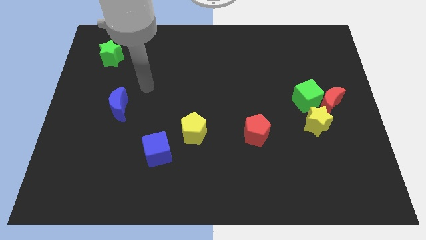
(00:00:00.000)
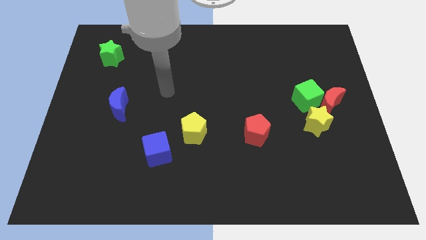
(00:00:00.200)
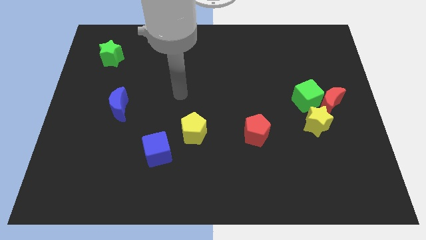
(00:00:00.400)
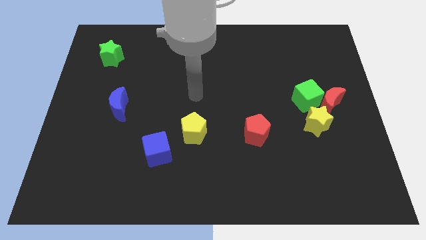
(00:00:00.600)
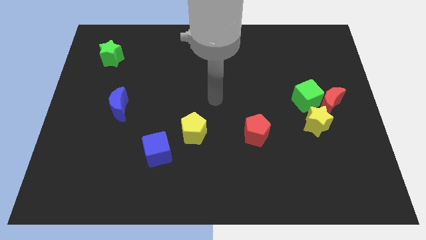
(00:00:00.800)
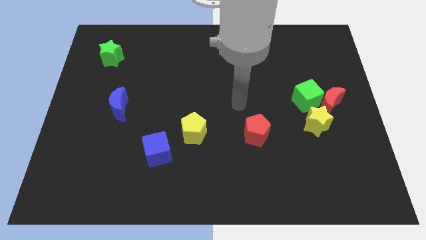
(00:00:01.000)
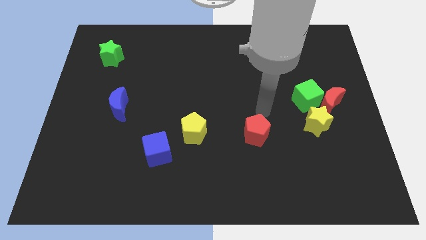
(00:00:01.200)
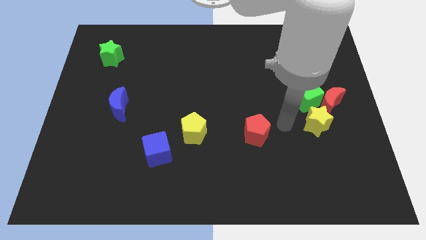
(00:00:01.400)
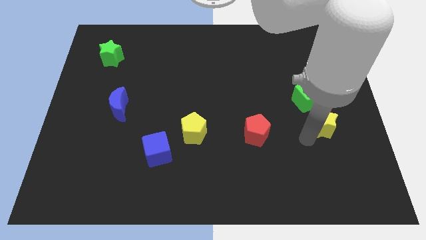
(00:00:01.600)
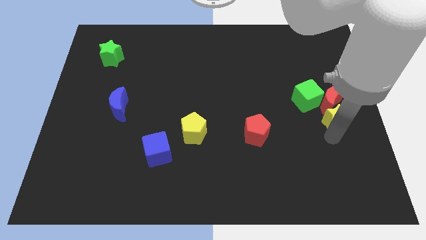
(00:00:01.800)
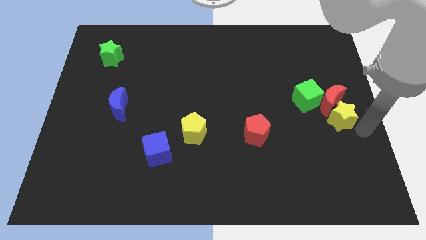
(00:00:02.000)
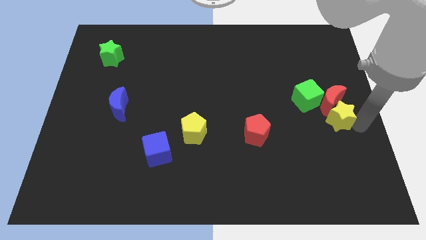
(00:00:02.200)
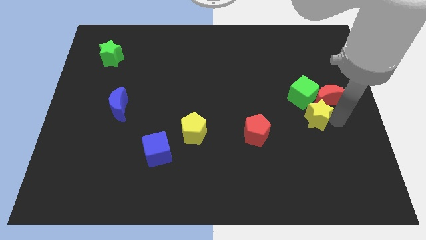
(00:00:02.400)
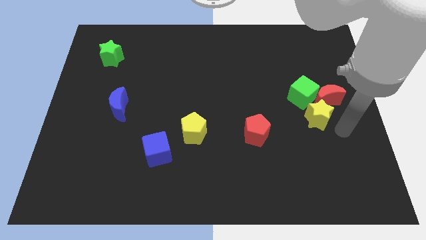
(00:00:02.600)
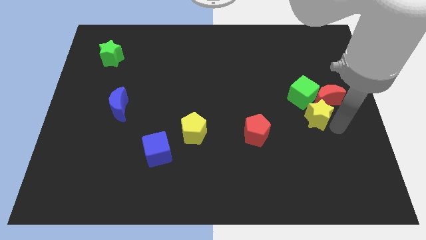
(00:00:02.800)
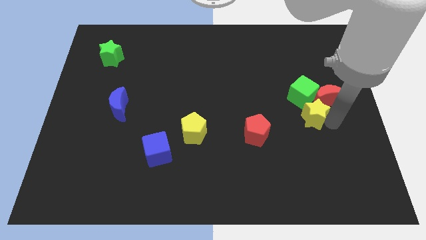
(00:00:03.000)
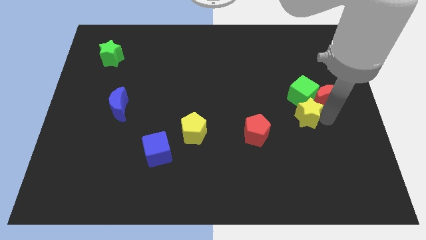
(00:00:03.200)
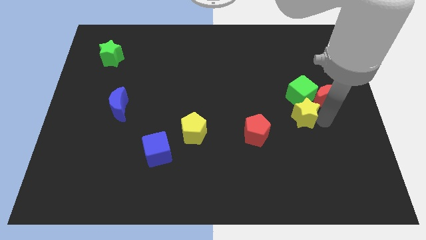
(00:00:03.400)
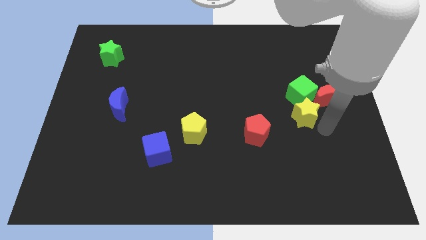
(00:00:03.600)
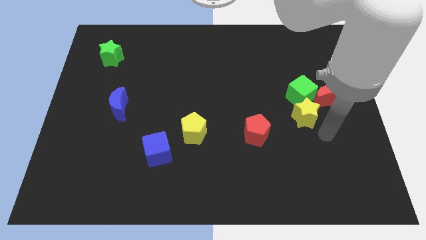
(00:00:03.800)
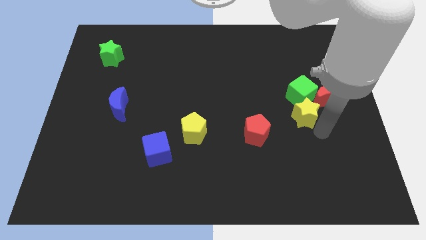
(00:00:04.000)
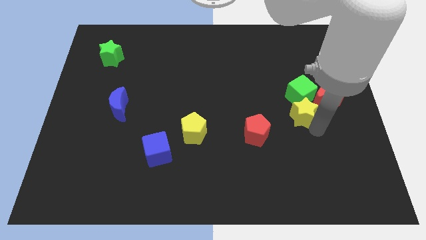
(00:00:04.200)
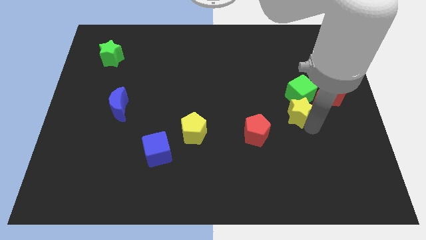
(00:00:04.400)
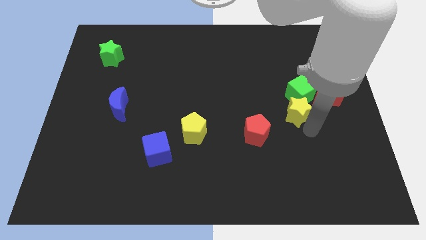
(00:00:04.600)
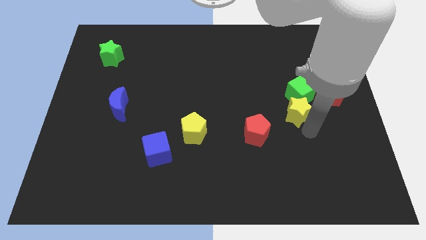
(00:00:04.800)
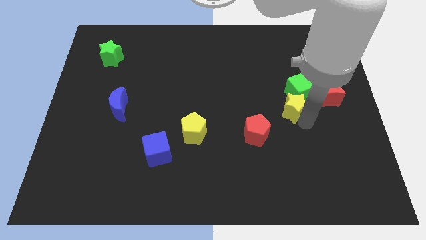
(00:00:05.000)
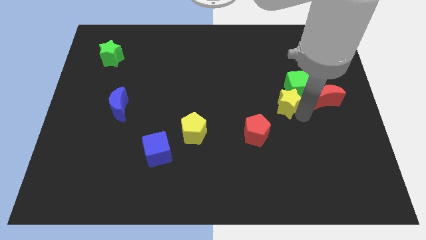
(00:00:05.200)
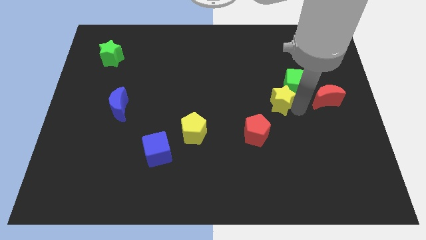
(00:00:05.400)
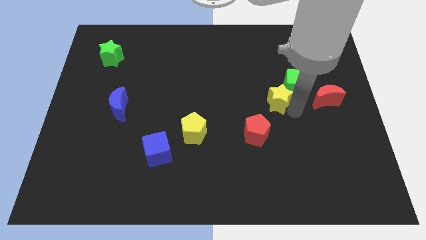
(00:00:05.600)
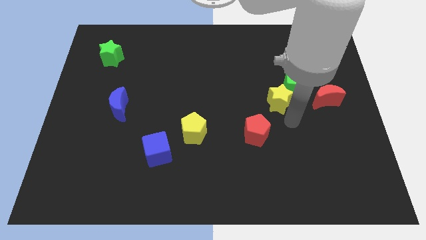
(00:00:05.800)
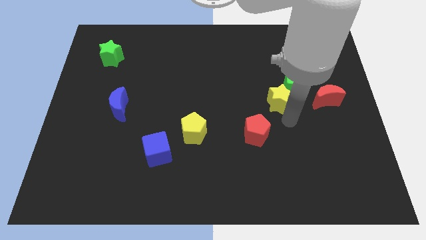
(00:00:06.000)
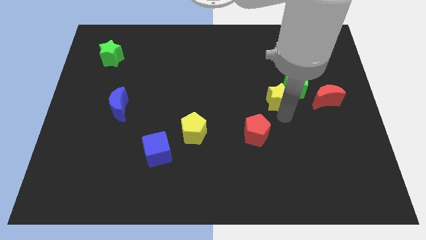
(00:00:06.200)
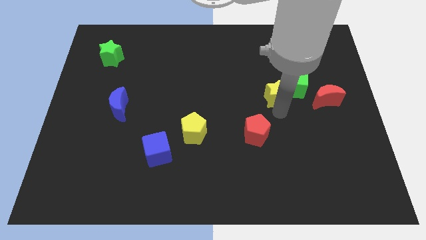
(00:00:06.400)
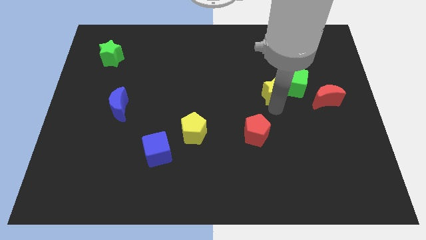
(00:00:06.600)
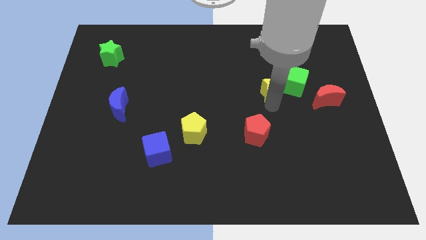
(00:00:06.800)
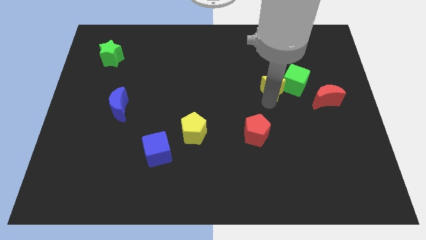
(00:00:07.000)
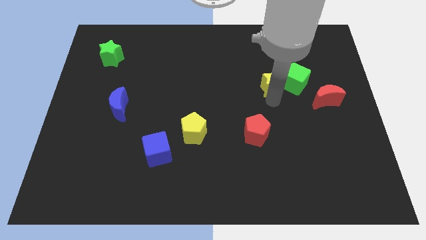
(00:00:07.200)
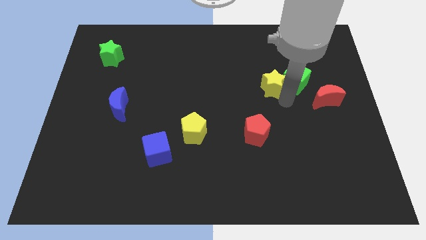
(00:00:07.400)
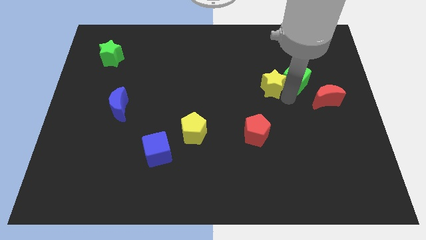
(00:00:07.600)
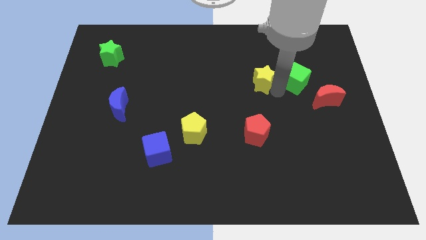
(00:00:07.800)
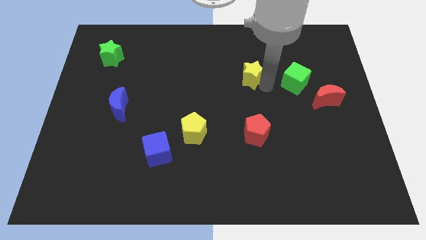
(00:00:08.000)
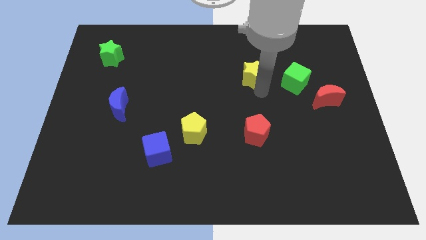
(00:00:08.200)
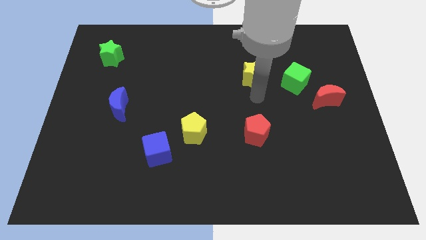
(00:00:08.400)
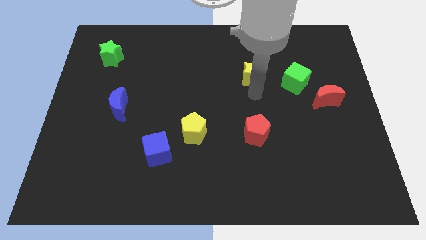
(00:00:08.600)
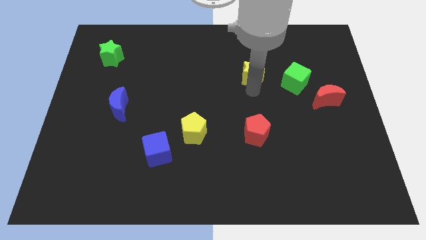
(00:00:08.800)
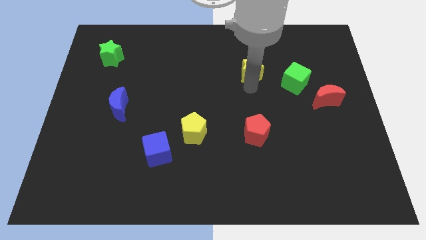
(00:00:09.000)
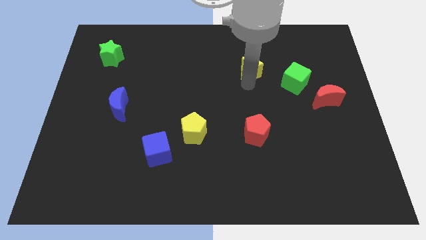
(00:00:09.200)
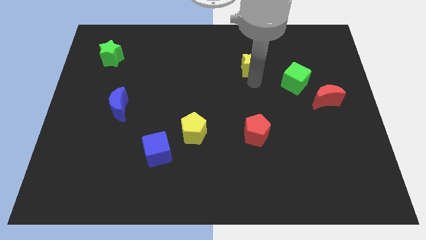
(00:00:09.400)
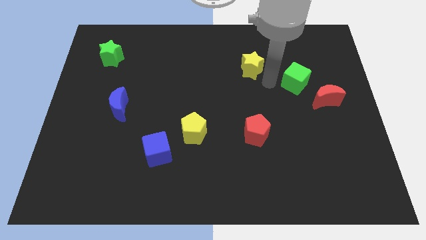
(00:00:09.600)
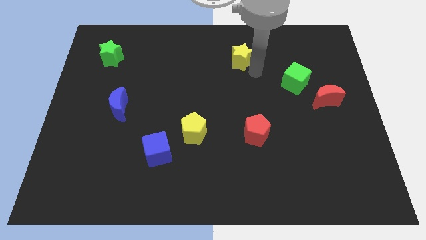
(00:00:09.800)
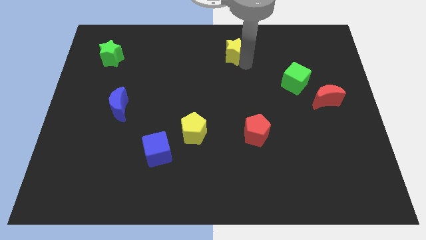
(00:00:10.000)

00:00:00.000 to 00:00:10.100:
move the yellow star to the top

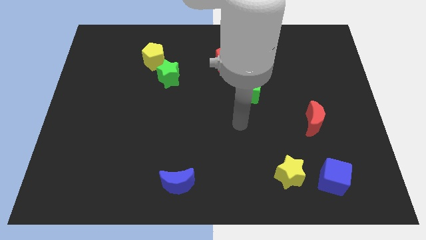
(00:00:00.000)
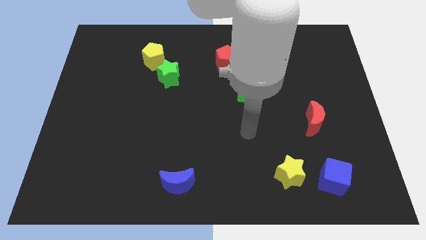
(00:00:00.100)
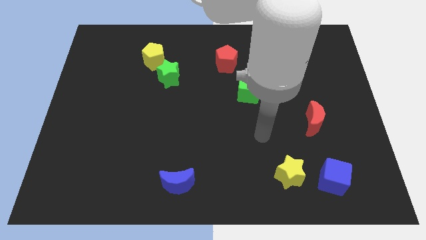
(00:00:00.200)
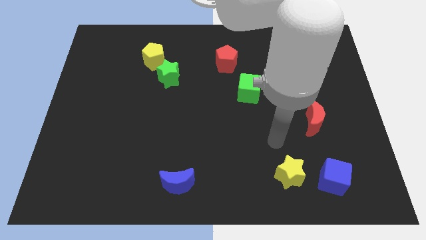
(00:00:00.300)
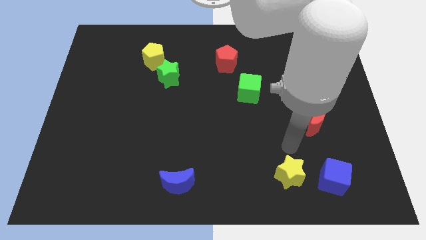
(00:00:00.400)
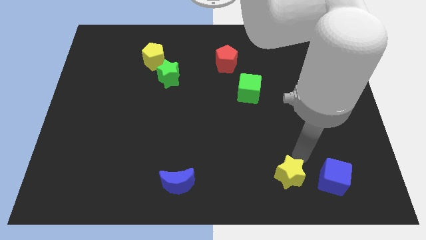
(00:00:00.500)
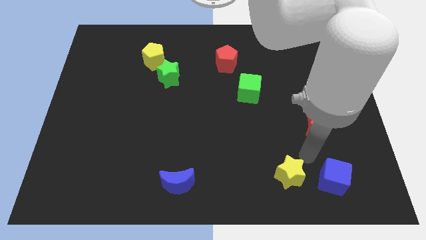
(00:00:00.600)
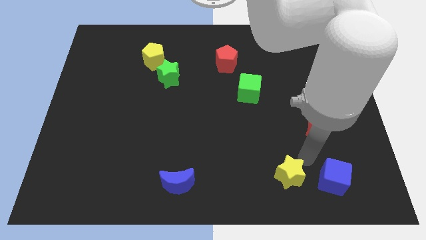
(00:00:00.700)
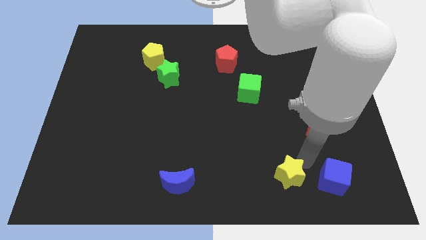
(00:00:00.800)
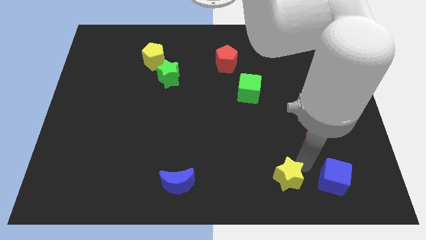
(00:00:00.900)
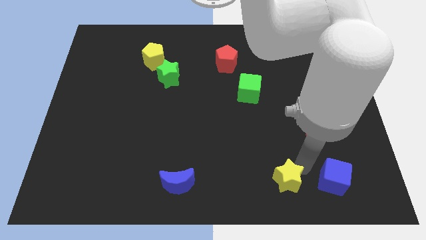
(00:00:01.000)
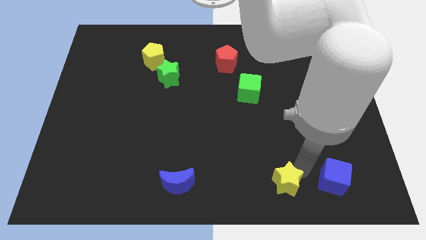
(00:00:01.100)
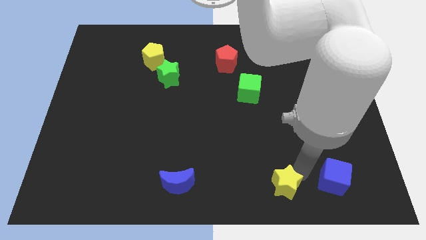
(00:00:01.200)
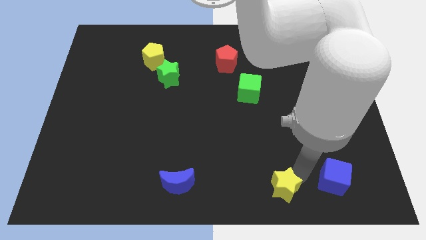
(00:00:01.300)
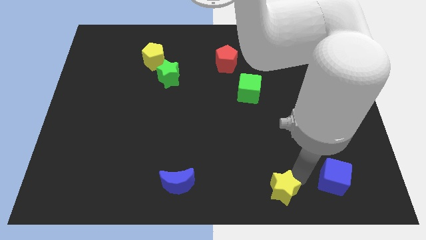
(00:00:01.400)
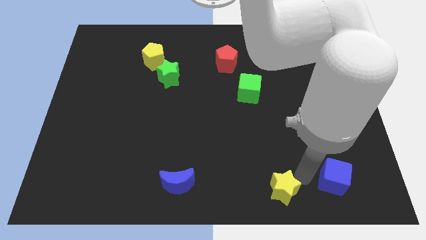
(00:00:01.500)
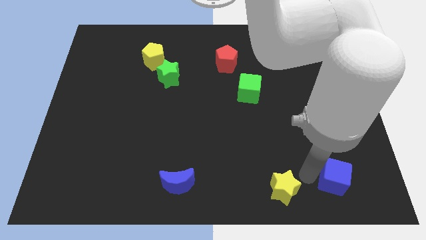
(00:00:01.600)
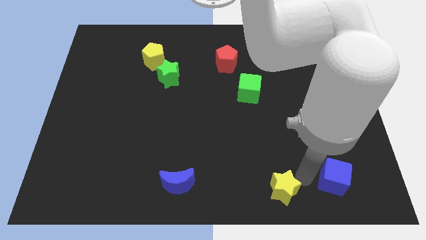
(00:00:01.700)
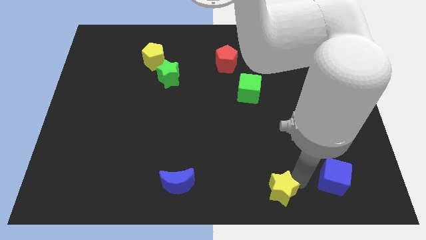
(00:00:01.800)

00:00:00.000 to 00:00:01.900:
move the yellow star to the bottom side

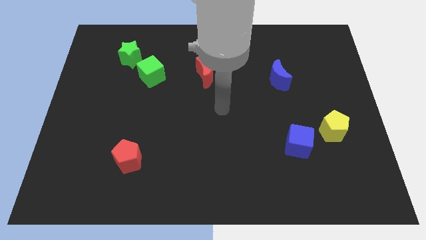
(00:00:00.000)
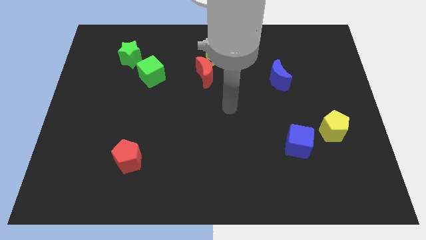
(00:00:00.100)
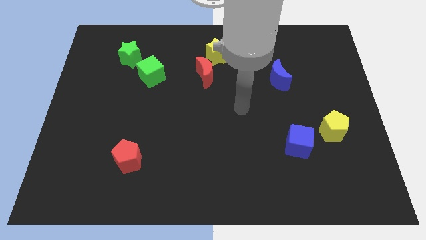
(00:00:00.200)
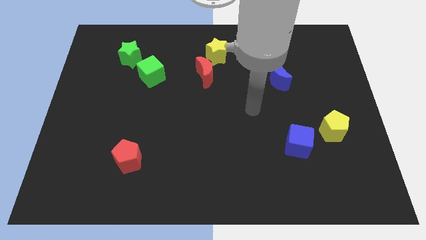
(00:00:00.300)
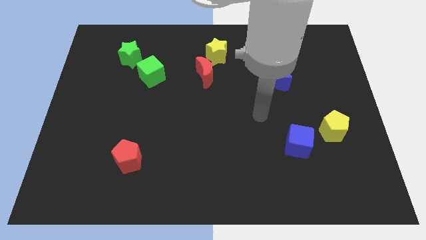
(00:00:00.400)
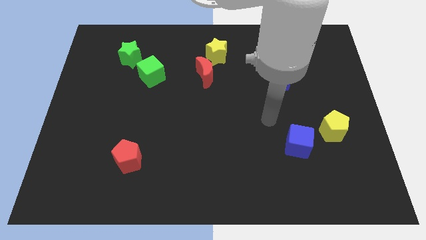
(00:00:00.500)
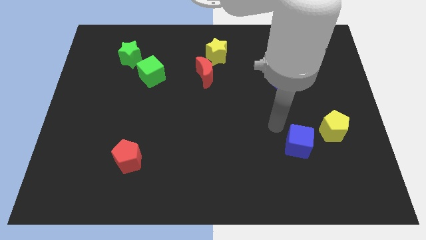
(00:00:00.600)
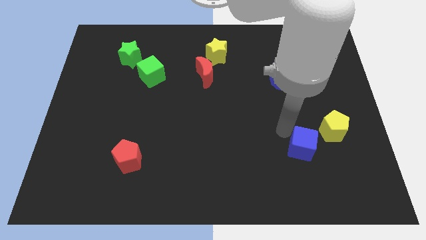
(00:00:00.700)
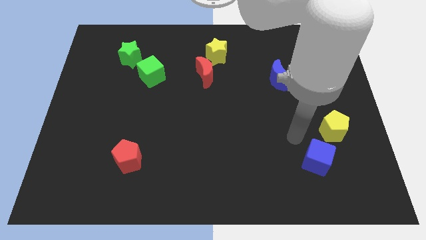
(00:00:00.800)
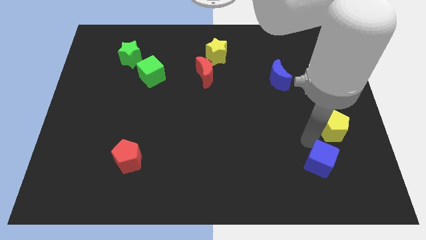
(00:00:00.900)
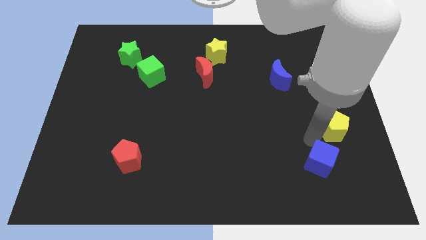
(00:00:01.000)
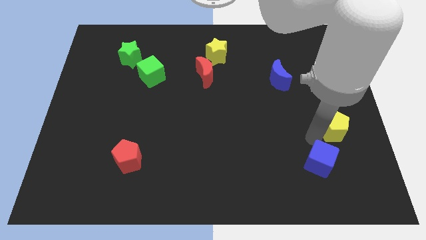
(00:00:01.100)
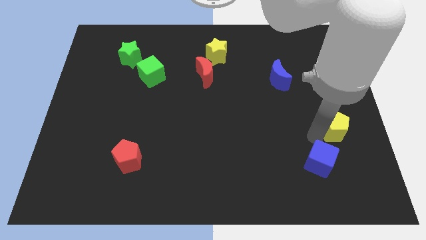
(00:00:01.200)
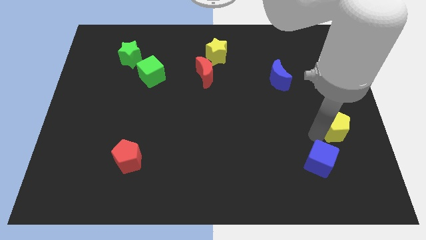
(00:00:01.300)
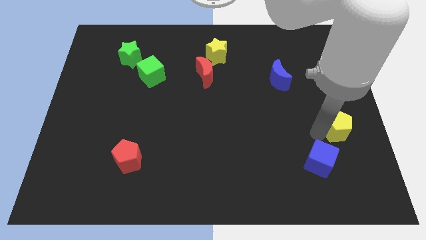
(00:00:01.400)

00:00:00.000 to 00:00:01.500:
put the yellow pentagon to the right side
